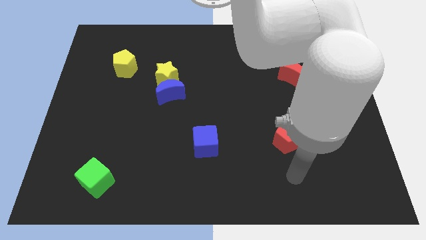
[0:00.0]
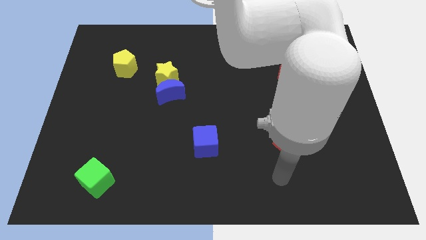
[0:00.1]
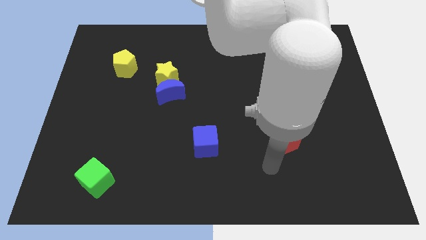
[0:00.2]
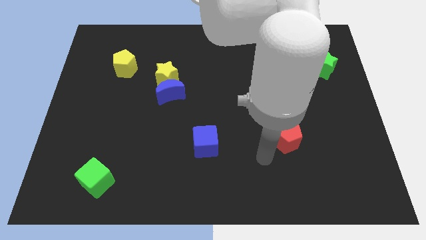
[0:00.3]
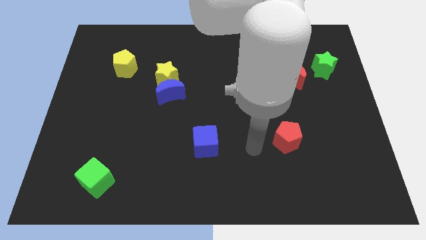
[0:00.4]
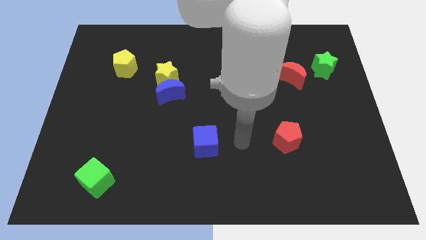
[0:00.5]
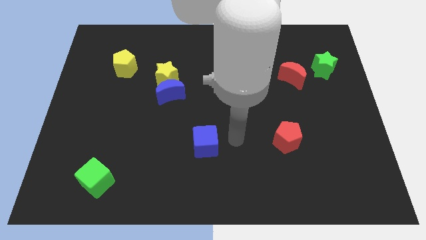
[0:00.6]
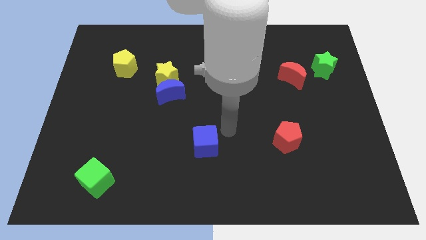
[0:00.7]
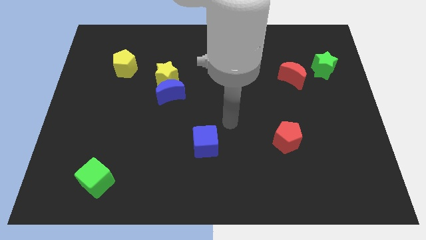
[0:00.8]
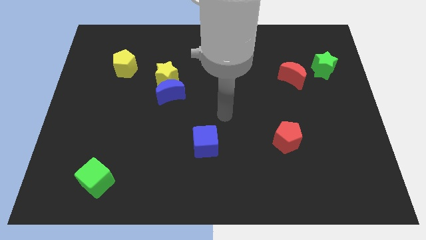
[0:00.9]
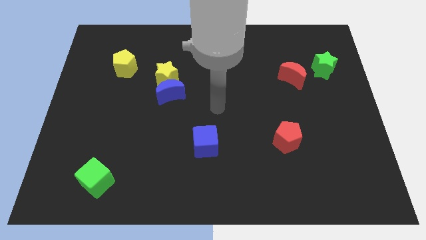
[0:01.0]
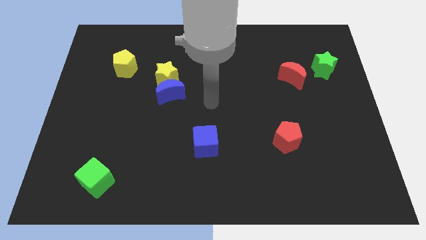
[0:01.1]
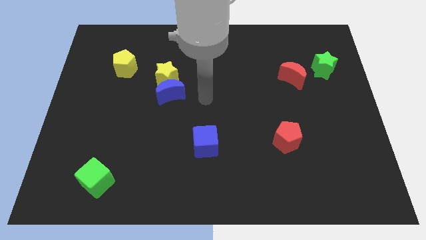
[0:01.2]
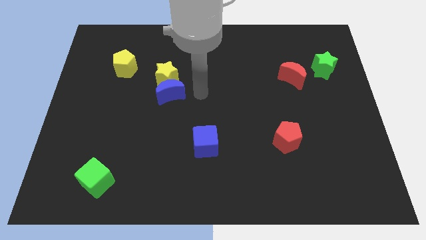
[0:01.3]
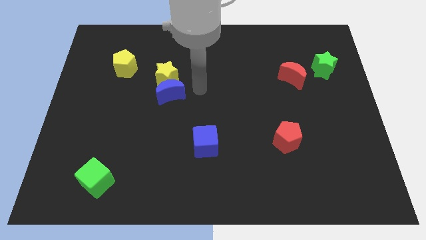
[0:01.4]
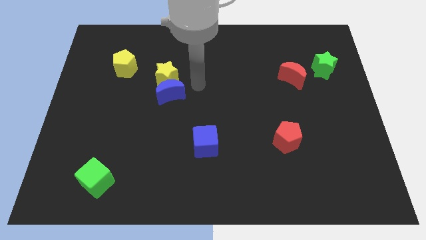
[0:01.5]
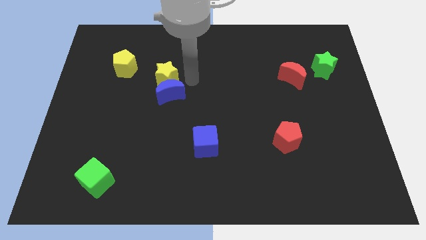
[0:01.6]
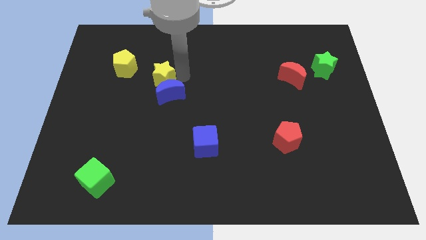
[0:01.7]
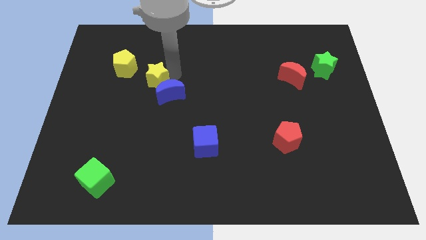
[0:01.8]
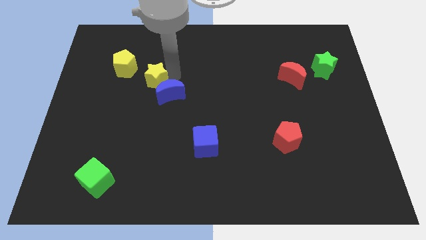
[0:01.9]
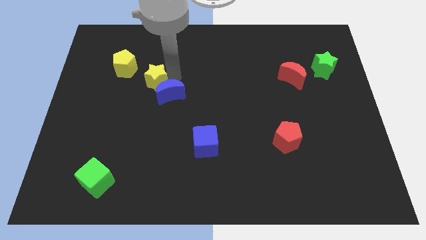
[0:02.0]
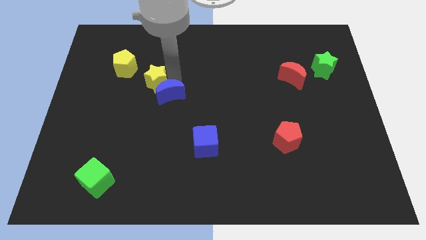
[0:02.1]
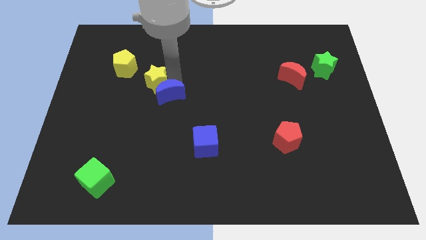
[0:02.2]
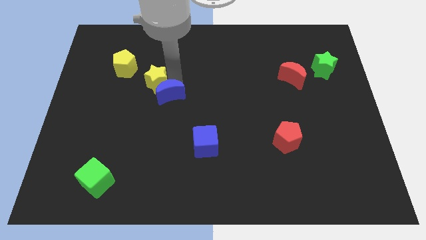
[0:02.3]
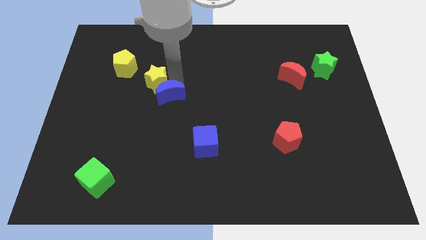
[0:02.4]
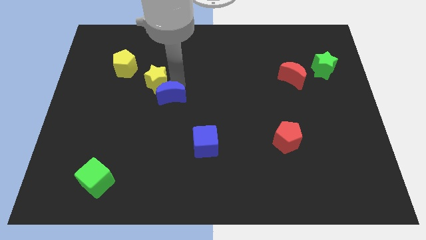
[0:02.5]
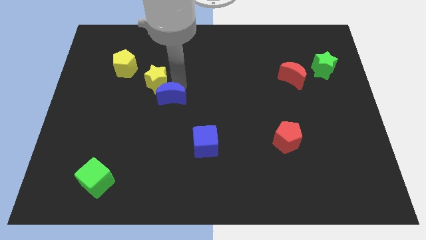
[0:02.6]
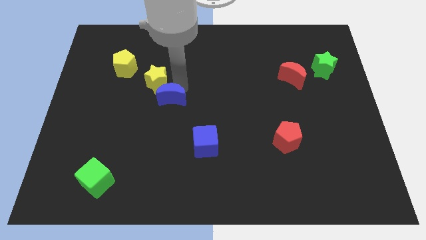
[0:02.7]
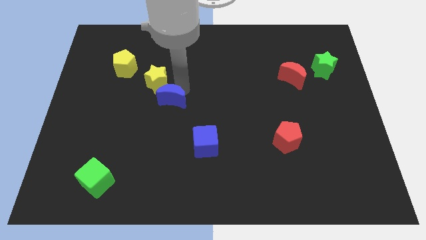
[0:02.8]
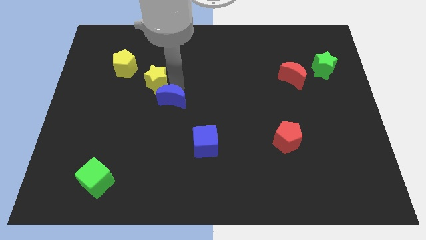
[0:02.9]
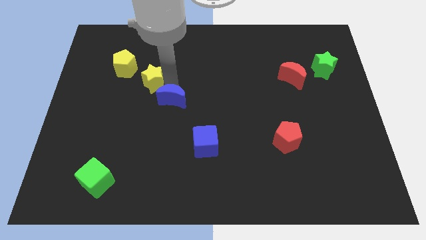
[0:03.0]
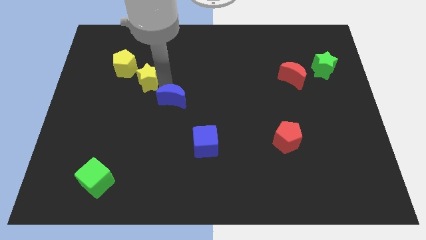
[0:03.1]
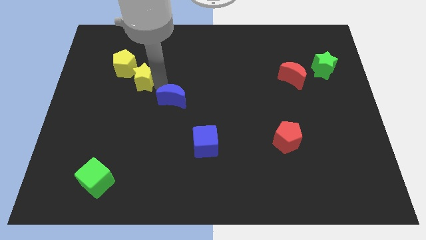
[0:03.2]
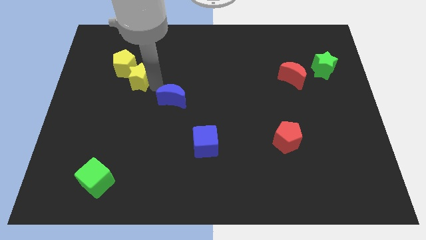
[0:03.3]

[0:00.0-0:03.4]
pull the blue moon apart from the yellow star

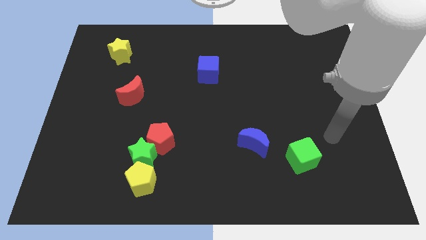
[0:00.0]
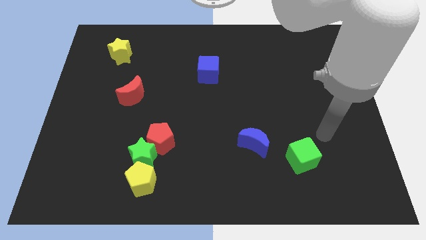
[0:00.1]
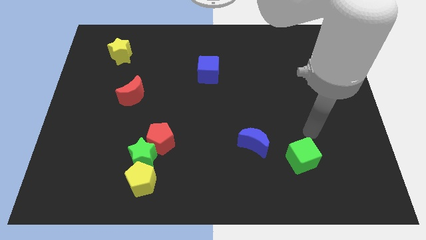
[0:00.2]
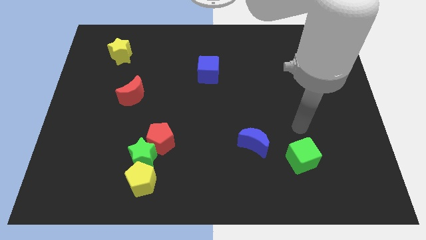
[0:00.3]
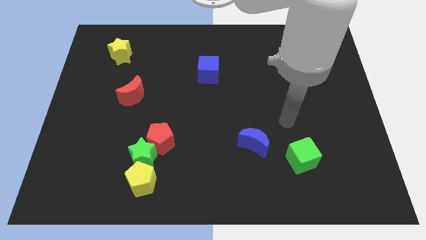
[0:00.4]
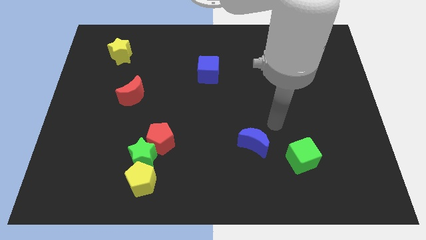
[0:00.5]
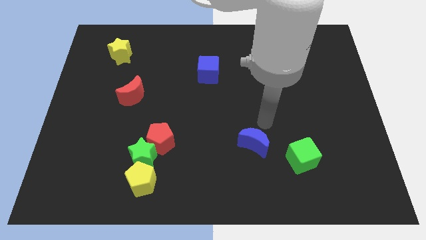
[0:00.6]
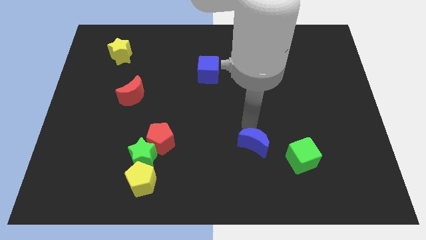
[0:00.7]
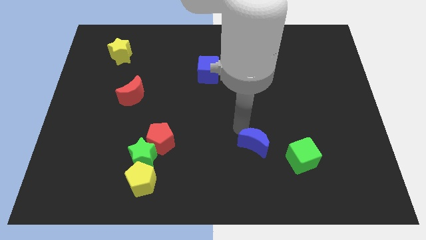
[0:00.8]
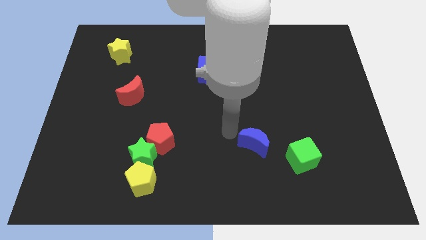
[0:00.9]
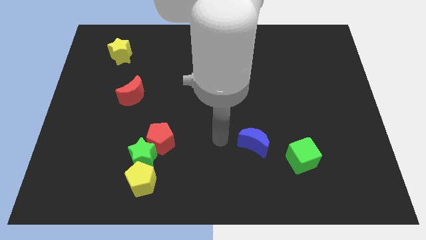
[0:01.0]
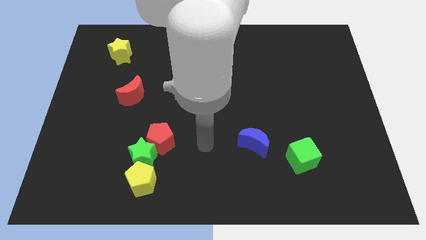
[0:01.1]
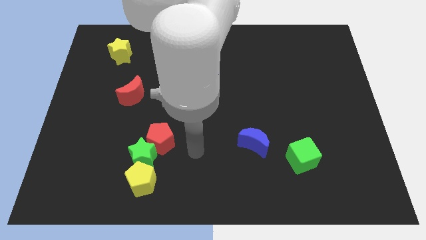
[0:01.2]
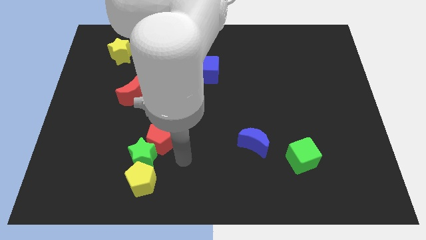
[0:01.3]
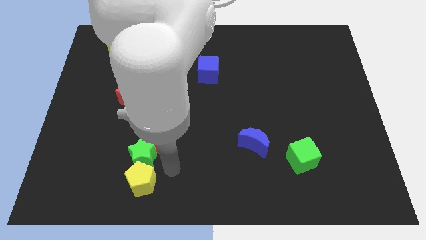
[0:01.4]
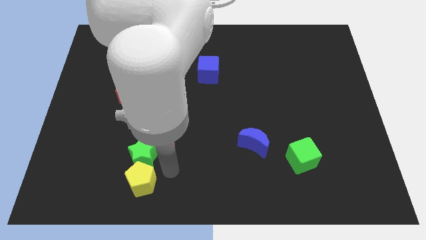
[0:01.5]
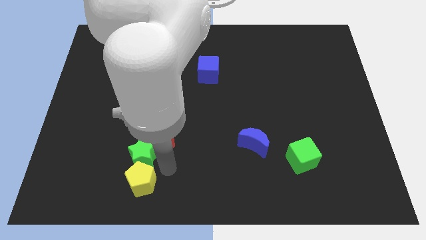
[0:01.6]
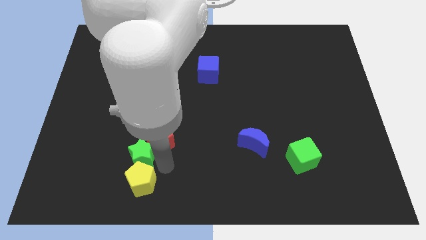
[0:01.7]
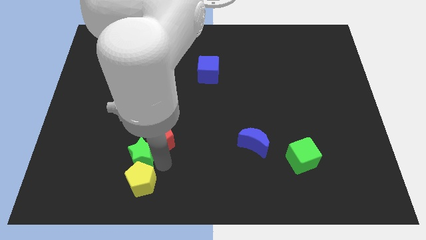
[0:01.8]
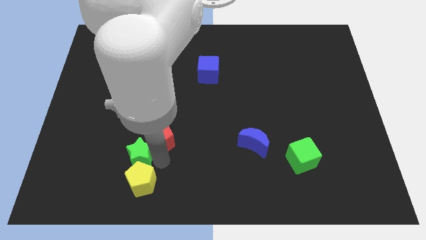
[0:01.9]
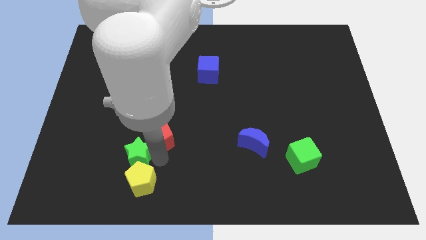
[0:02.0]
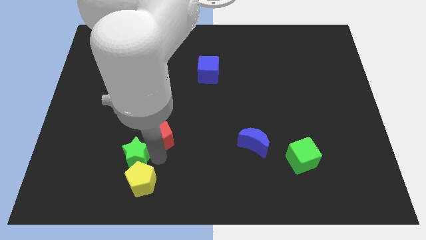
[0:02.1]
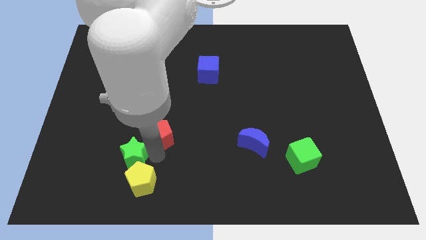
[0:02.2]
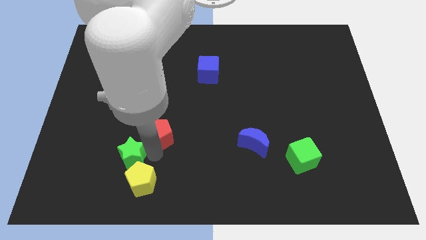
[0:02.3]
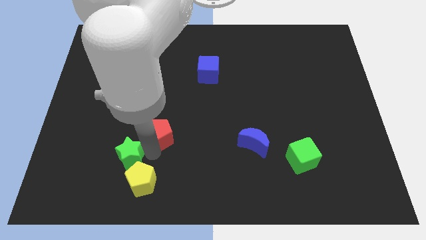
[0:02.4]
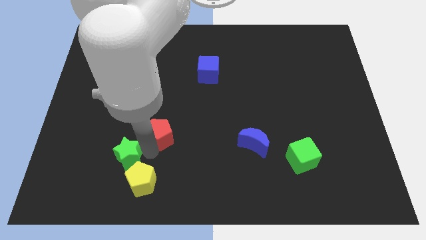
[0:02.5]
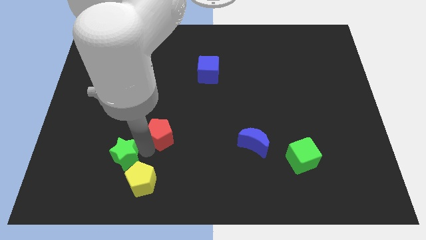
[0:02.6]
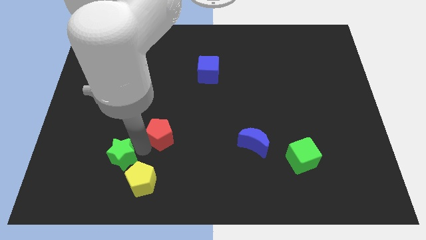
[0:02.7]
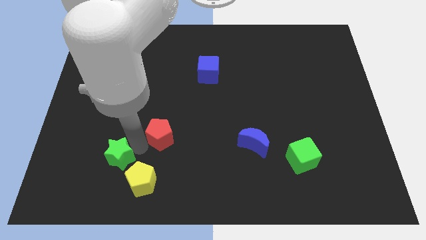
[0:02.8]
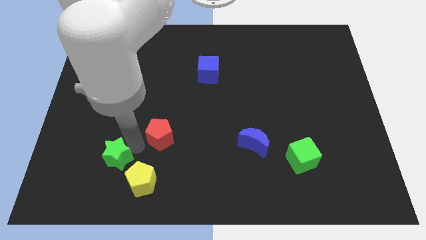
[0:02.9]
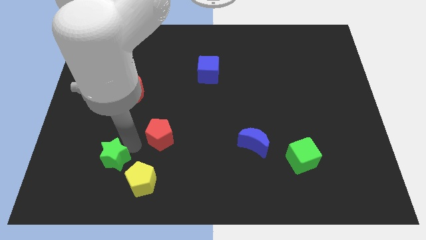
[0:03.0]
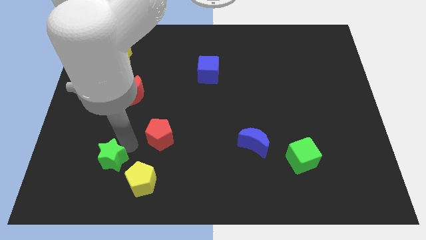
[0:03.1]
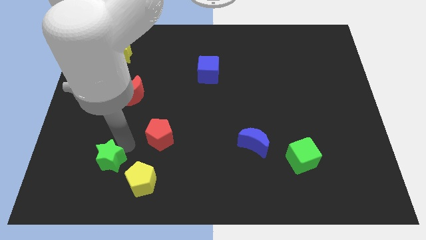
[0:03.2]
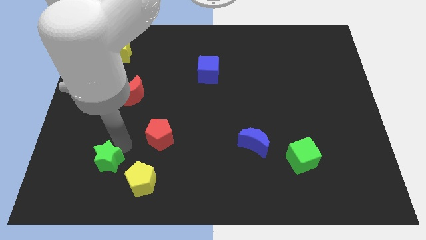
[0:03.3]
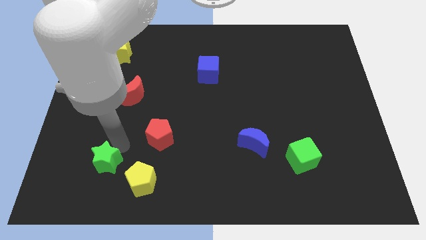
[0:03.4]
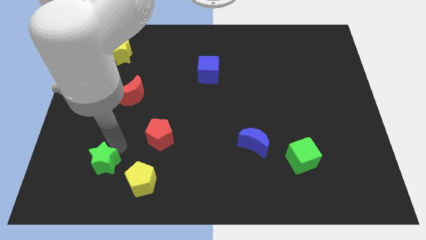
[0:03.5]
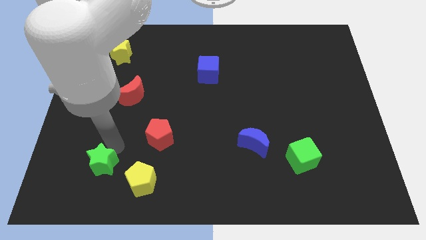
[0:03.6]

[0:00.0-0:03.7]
move the green star away from the red pentagon and yellow pentagon

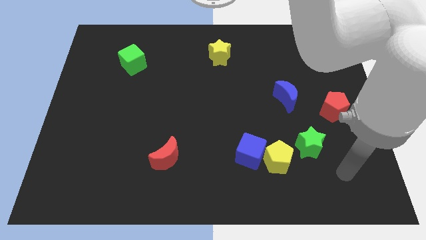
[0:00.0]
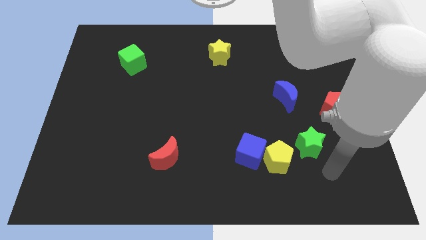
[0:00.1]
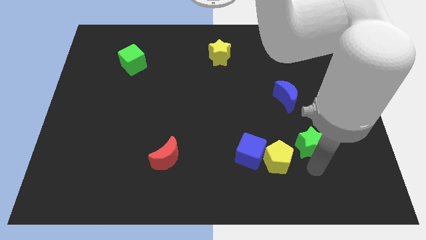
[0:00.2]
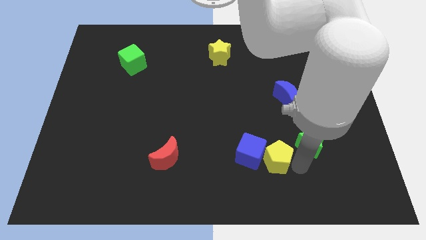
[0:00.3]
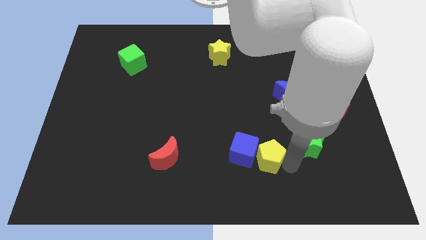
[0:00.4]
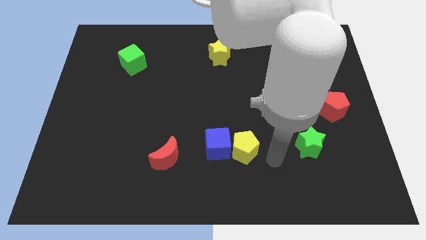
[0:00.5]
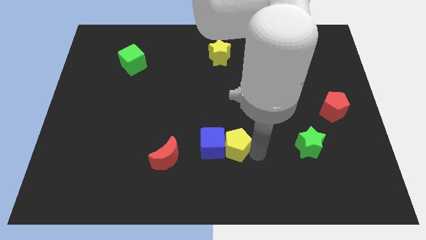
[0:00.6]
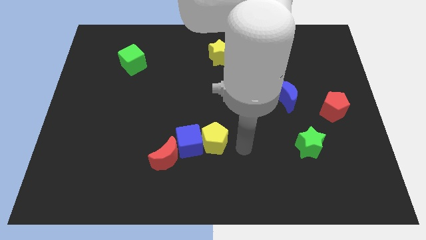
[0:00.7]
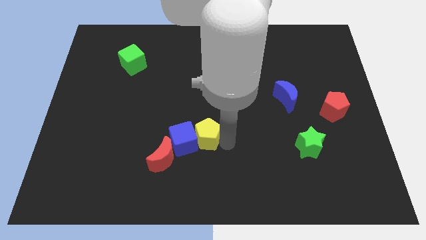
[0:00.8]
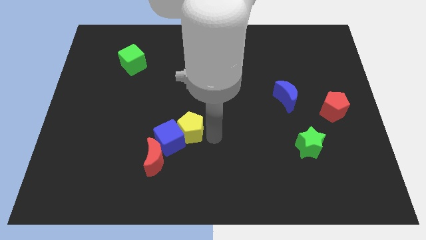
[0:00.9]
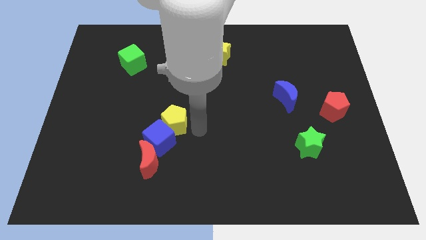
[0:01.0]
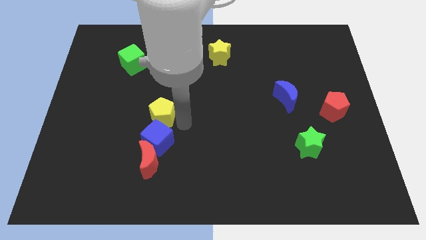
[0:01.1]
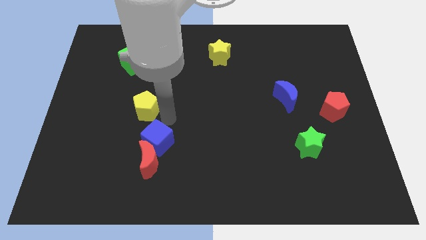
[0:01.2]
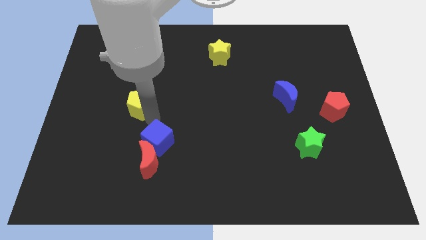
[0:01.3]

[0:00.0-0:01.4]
move the blue cube away from the yellow pentagon

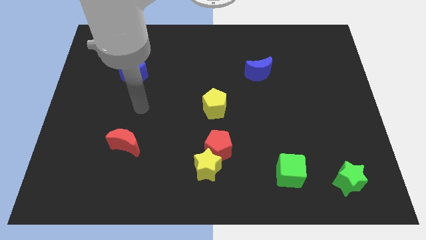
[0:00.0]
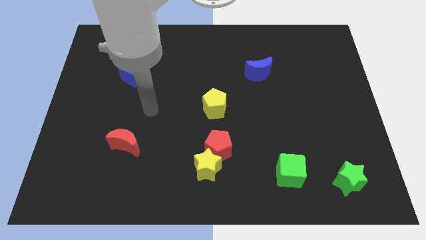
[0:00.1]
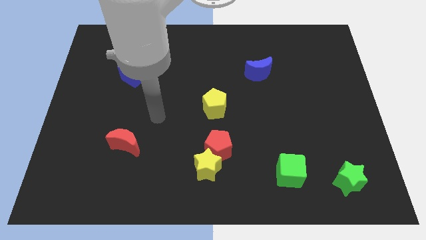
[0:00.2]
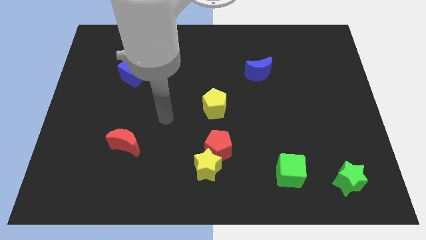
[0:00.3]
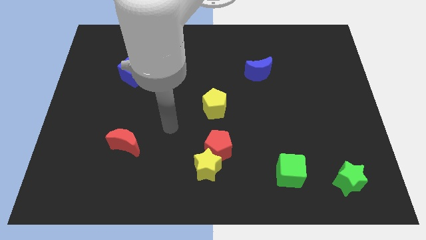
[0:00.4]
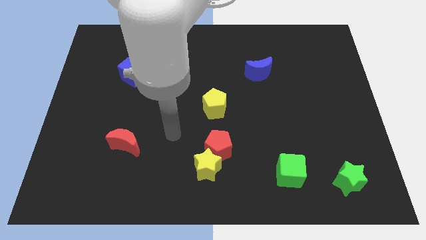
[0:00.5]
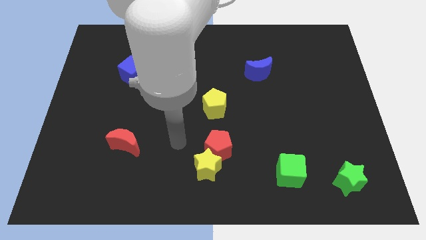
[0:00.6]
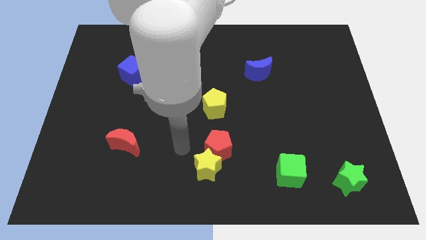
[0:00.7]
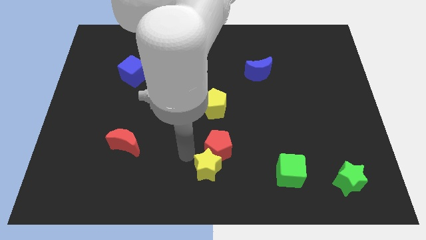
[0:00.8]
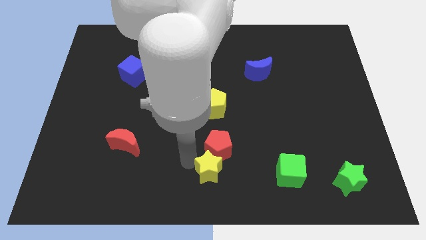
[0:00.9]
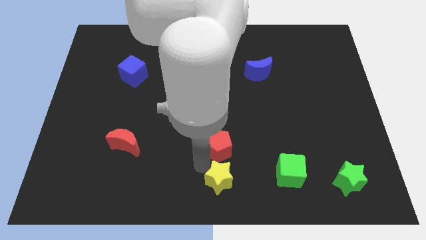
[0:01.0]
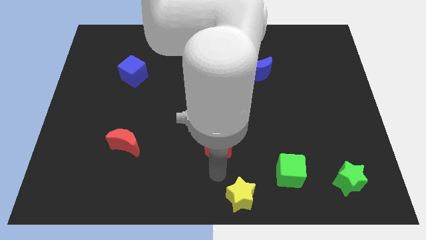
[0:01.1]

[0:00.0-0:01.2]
pull the red pentagon apart from the yellow star
